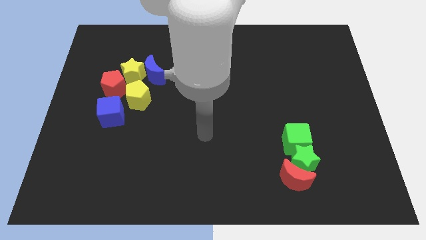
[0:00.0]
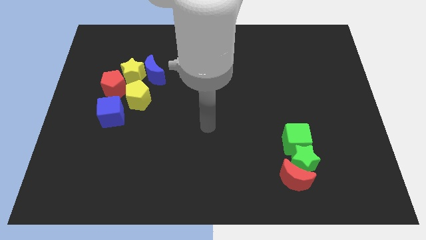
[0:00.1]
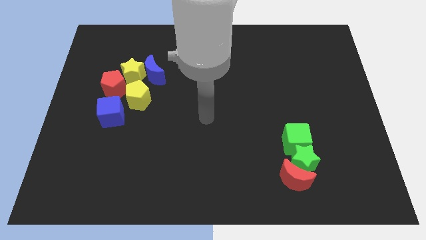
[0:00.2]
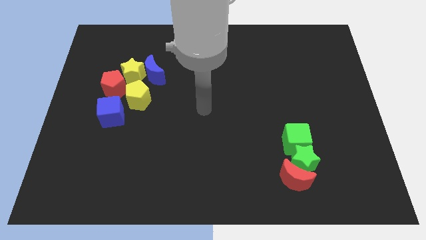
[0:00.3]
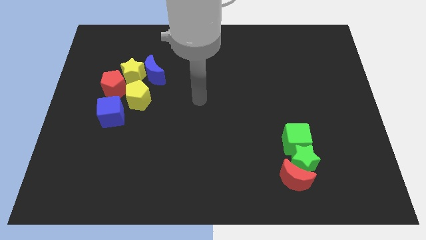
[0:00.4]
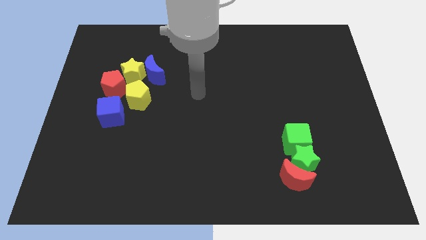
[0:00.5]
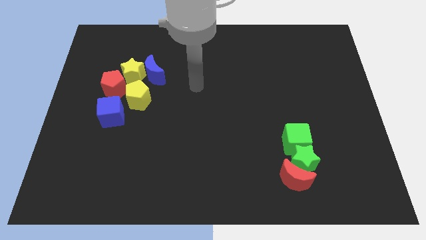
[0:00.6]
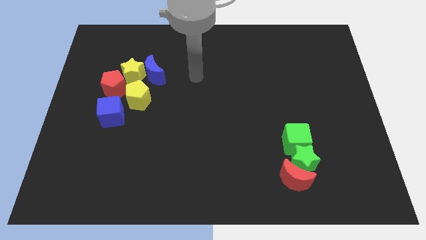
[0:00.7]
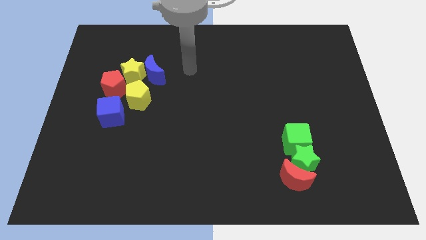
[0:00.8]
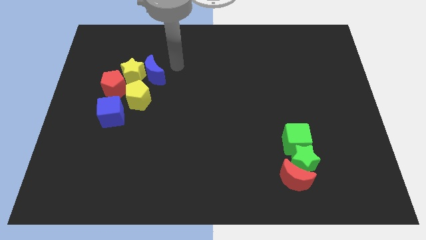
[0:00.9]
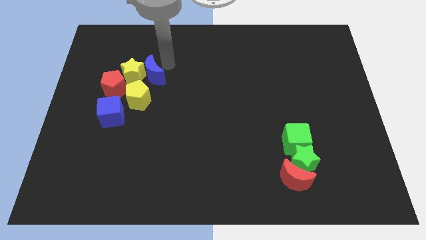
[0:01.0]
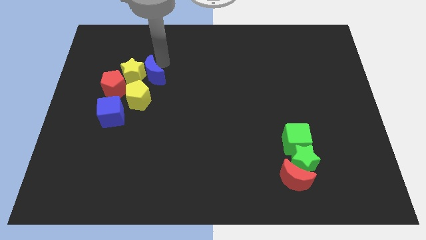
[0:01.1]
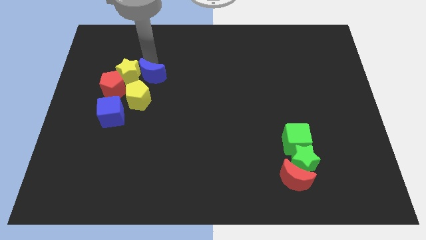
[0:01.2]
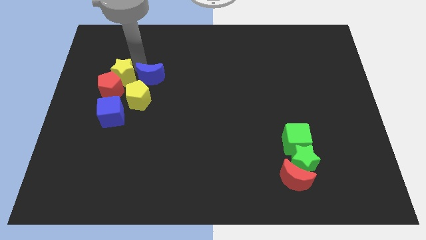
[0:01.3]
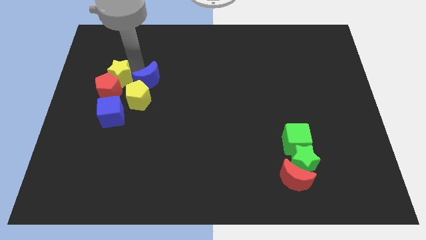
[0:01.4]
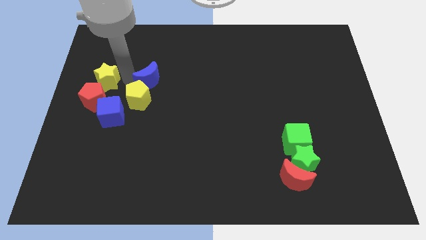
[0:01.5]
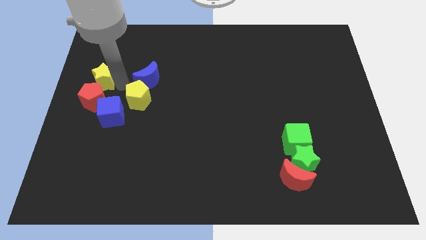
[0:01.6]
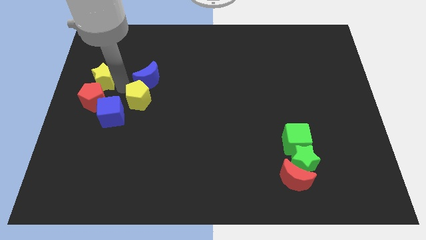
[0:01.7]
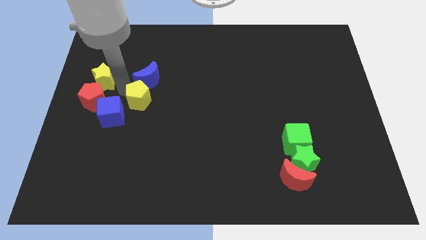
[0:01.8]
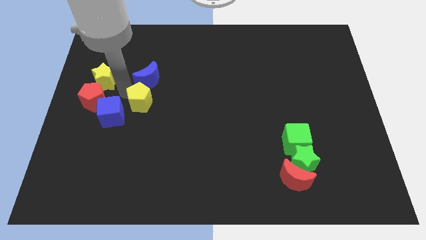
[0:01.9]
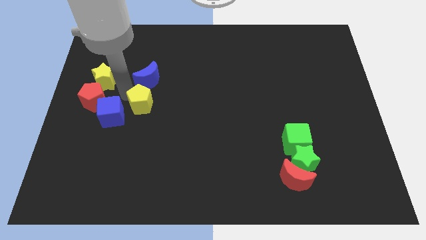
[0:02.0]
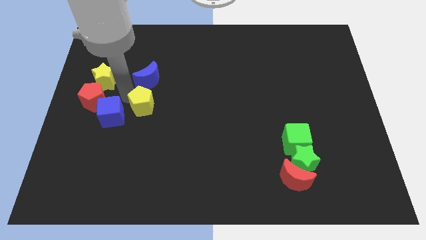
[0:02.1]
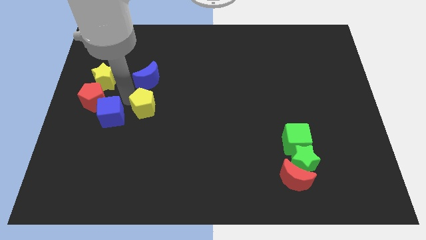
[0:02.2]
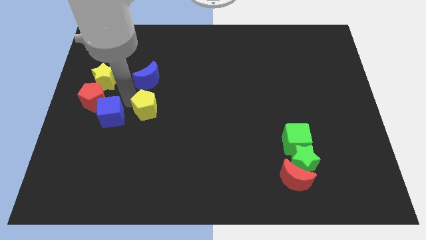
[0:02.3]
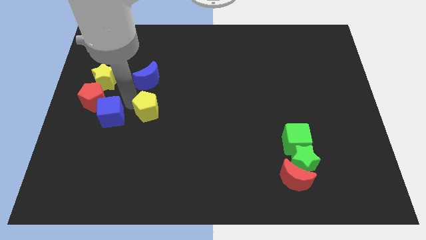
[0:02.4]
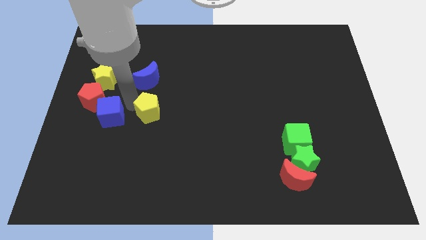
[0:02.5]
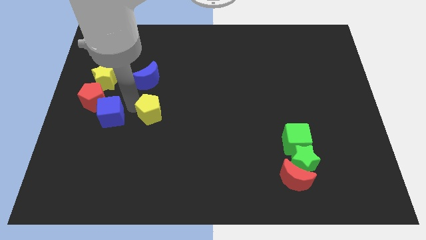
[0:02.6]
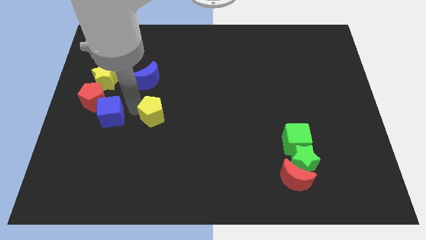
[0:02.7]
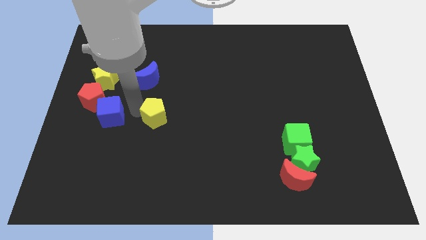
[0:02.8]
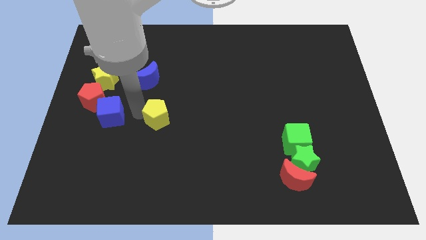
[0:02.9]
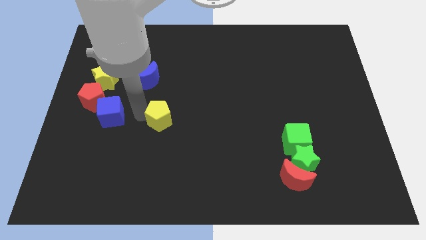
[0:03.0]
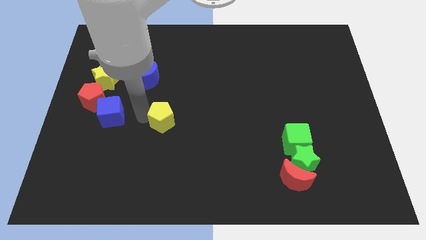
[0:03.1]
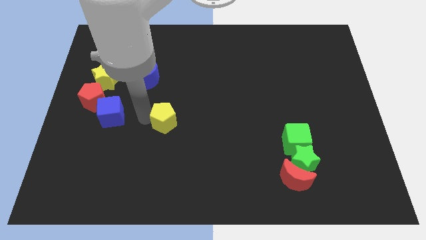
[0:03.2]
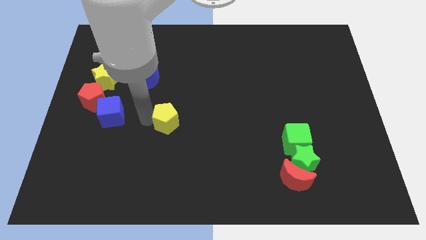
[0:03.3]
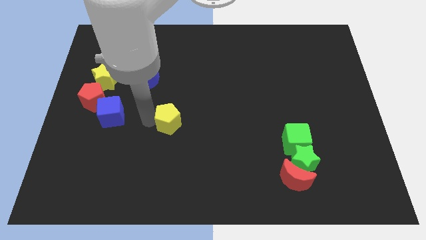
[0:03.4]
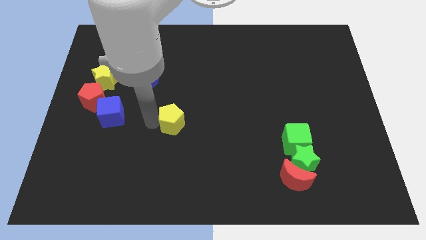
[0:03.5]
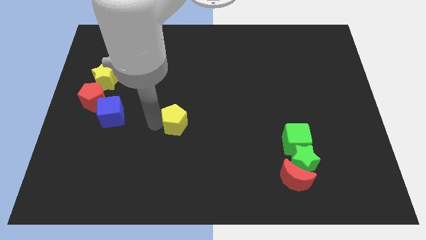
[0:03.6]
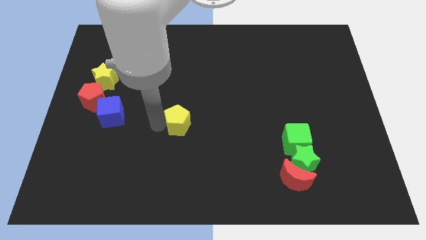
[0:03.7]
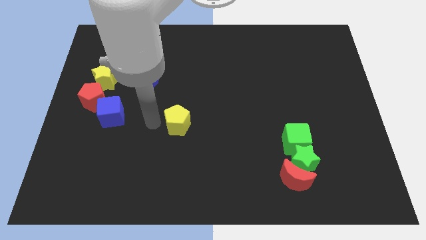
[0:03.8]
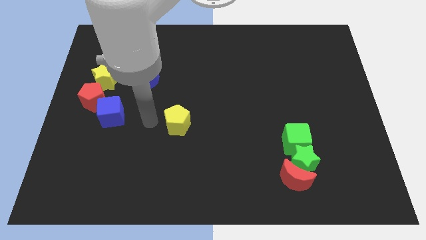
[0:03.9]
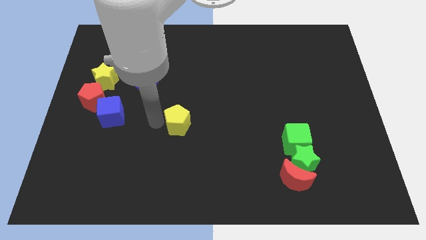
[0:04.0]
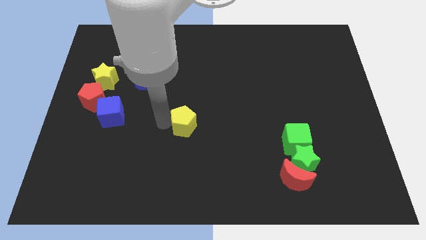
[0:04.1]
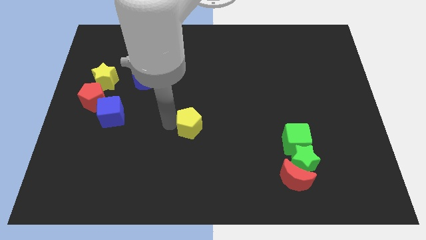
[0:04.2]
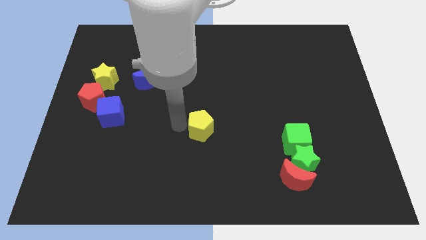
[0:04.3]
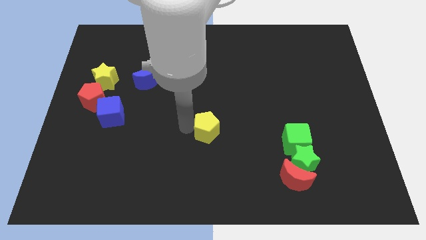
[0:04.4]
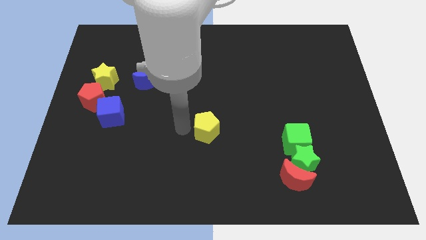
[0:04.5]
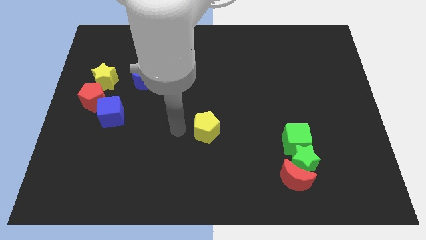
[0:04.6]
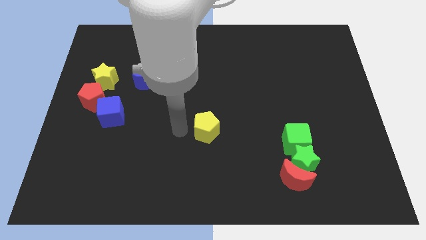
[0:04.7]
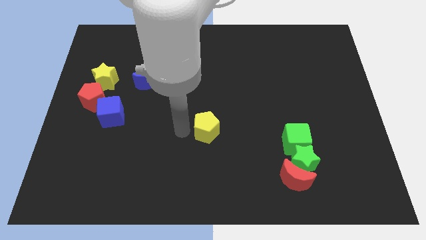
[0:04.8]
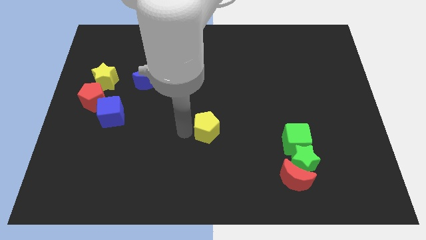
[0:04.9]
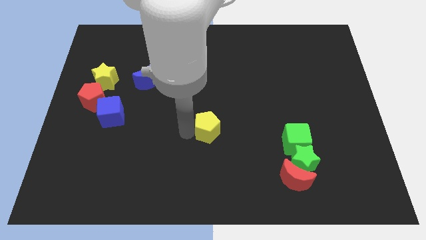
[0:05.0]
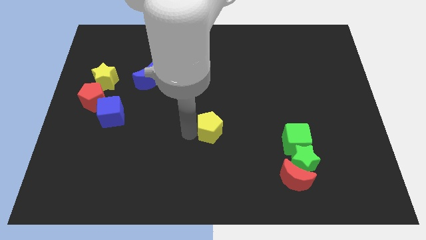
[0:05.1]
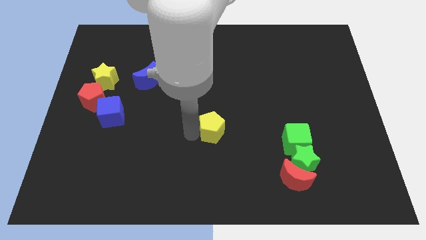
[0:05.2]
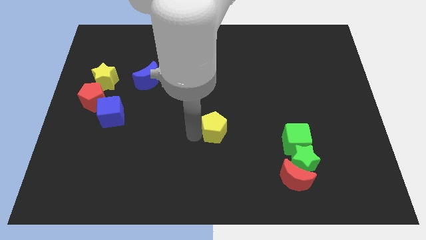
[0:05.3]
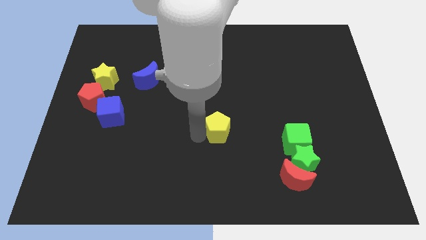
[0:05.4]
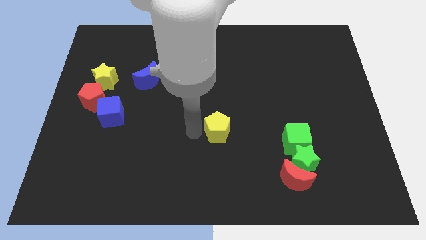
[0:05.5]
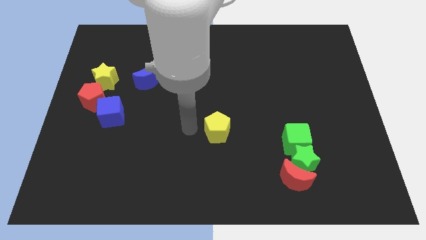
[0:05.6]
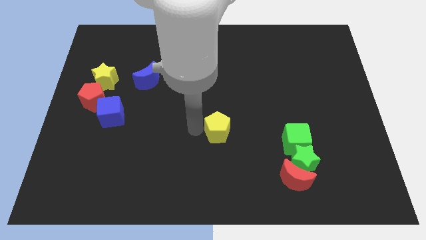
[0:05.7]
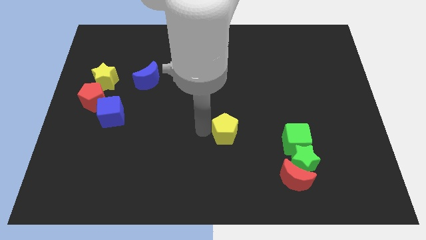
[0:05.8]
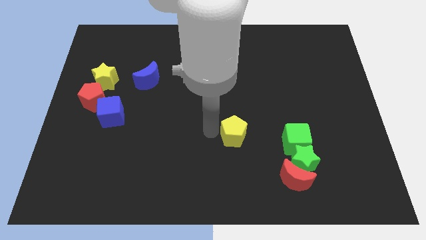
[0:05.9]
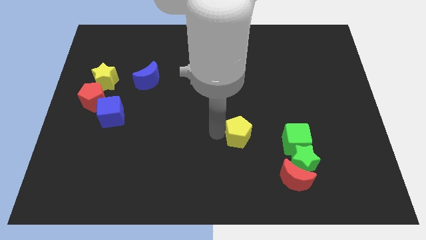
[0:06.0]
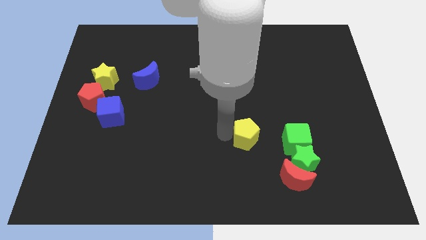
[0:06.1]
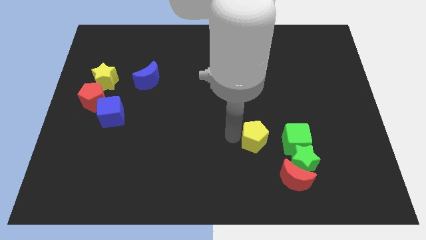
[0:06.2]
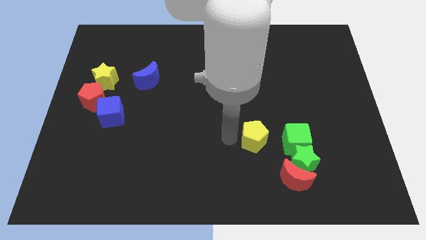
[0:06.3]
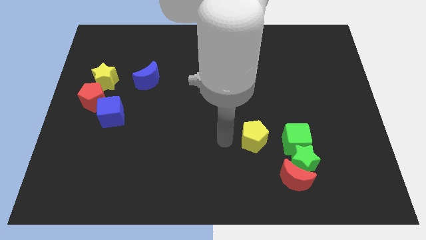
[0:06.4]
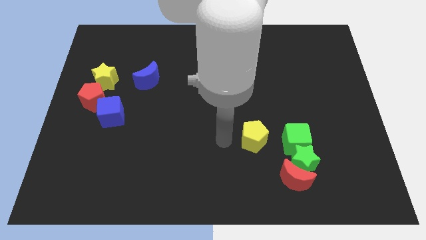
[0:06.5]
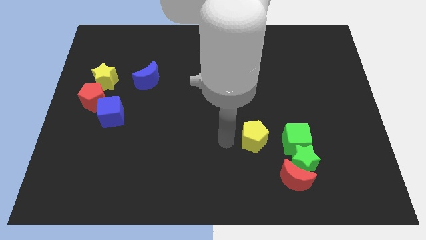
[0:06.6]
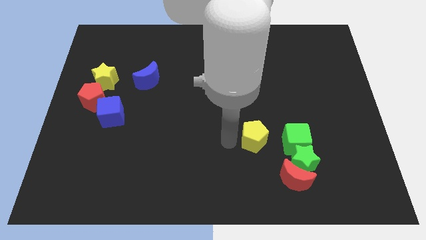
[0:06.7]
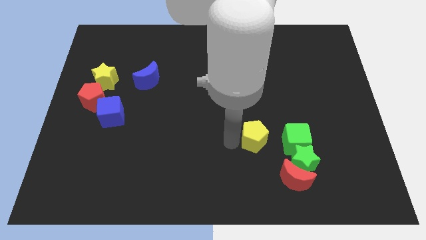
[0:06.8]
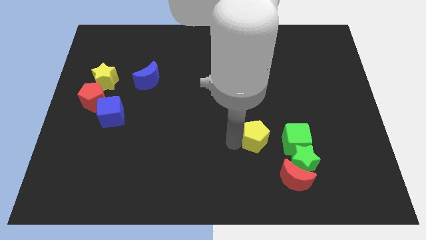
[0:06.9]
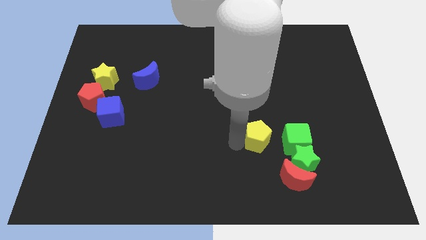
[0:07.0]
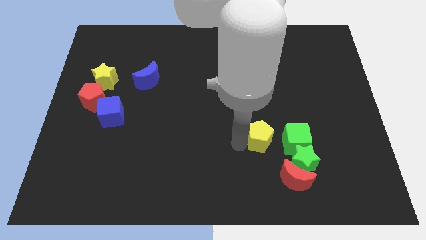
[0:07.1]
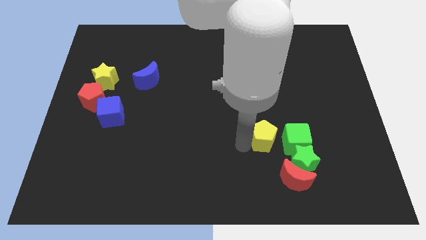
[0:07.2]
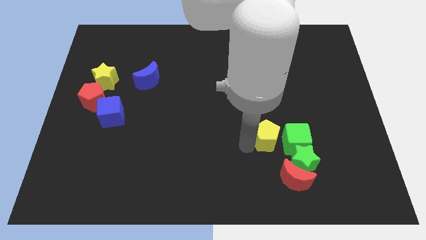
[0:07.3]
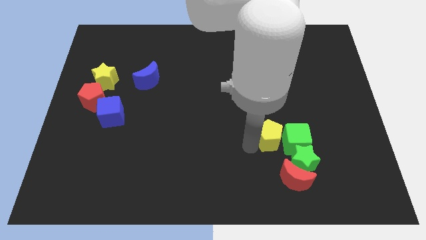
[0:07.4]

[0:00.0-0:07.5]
push the yellow pentagon to the green cube

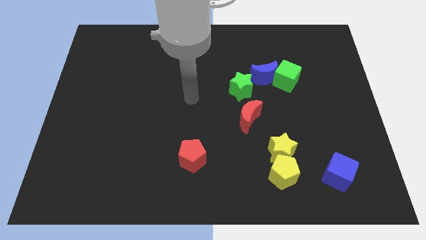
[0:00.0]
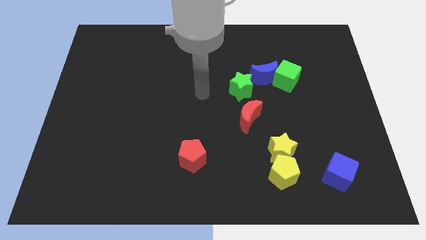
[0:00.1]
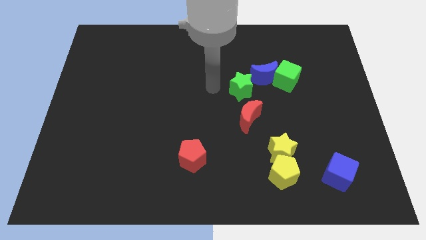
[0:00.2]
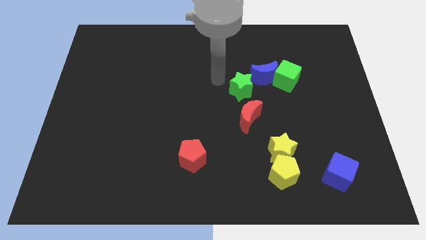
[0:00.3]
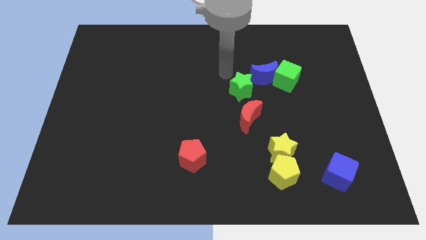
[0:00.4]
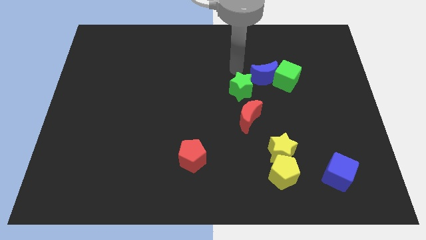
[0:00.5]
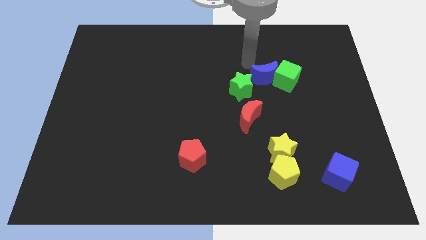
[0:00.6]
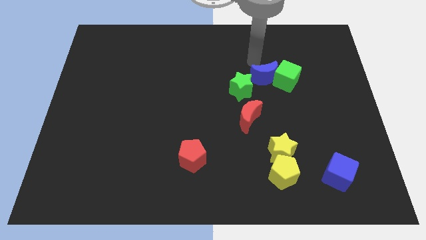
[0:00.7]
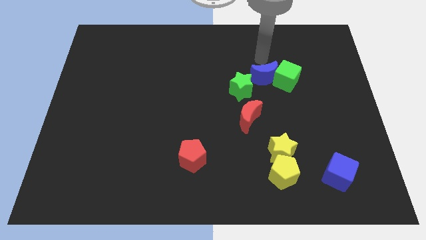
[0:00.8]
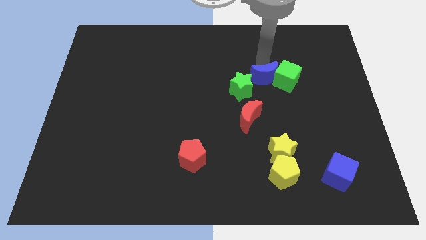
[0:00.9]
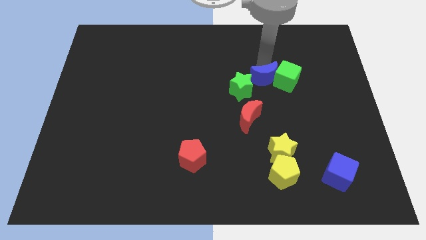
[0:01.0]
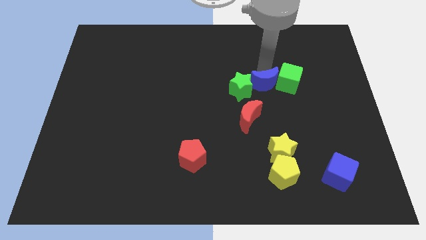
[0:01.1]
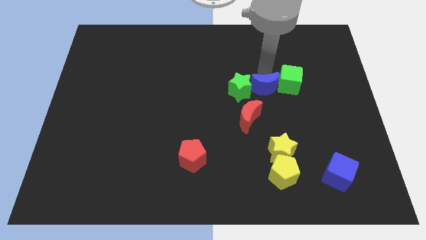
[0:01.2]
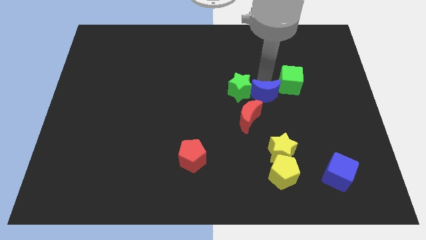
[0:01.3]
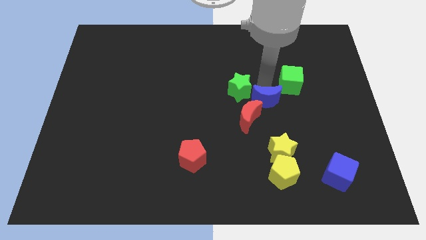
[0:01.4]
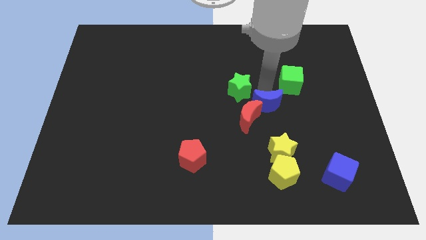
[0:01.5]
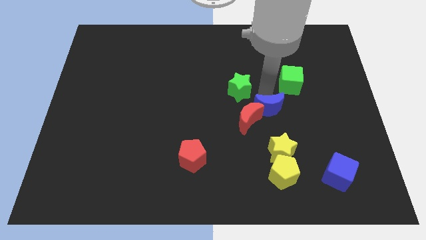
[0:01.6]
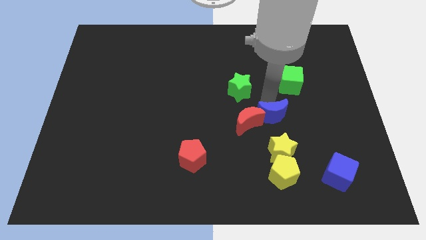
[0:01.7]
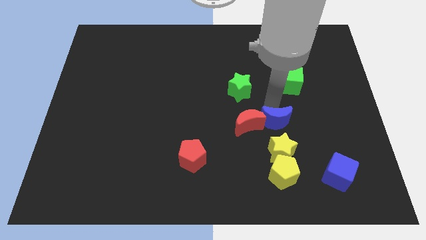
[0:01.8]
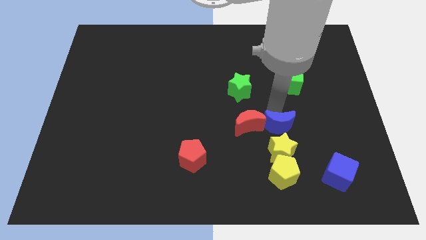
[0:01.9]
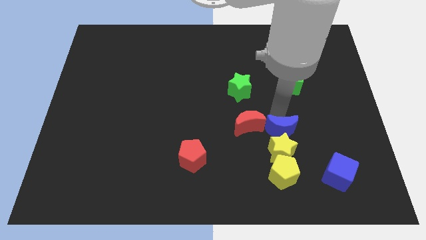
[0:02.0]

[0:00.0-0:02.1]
put the blue moon to the yellow star
